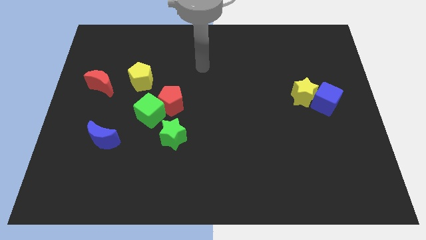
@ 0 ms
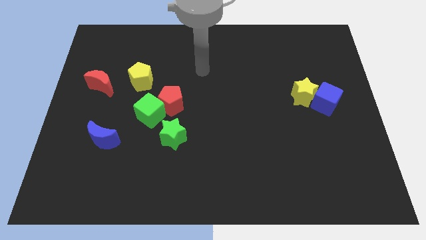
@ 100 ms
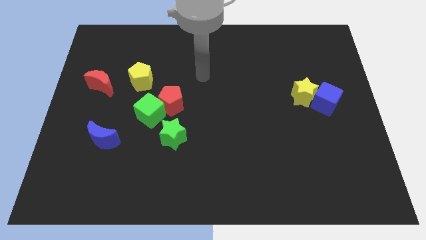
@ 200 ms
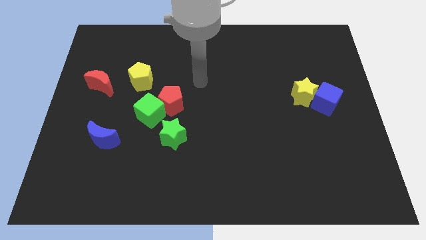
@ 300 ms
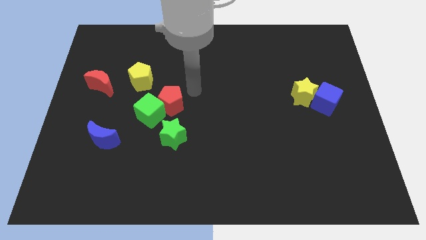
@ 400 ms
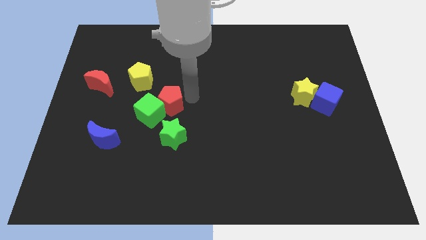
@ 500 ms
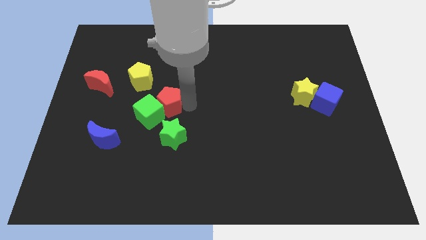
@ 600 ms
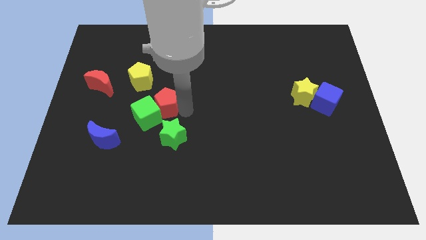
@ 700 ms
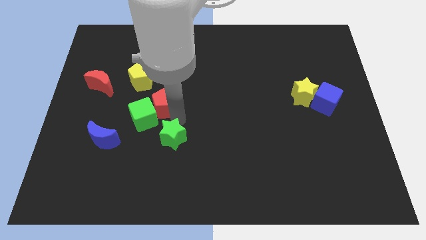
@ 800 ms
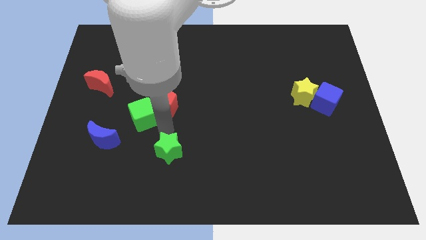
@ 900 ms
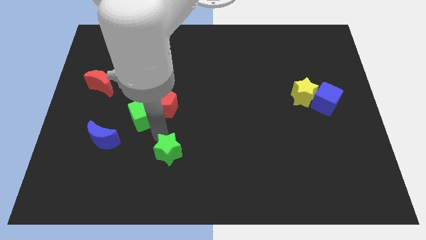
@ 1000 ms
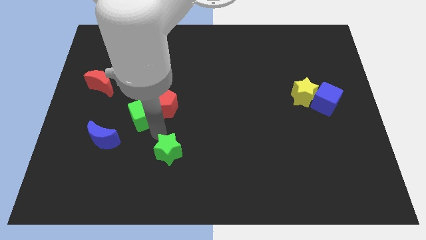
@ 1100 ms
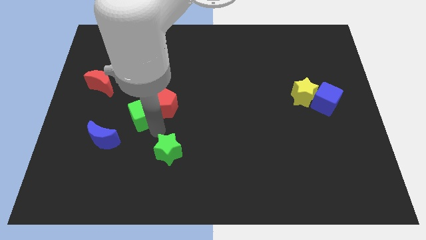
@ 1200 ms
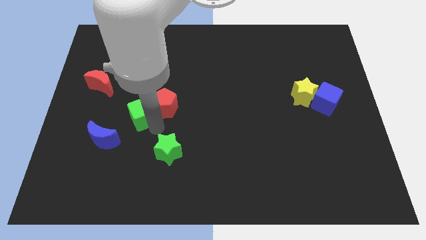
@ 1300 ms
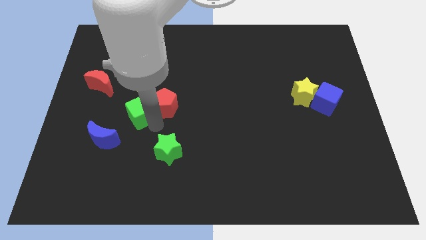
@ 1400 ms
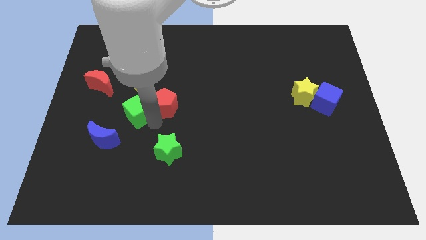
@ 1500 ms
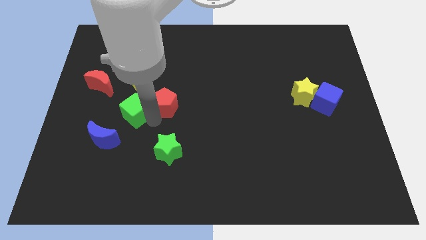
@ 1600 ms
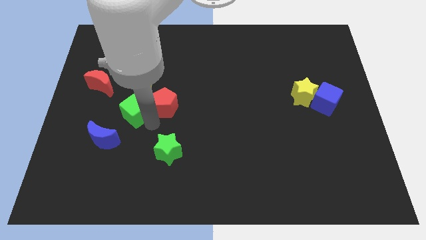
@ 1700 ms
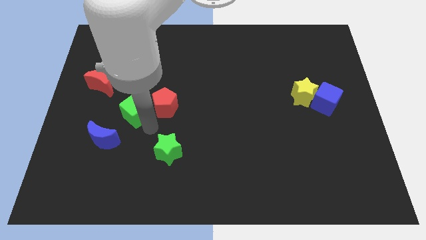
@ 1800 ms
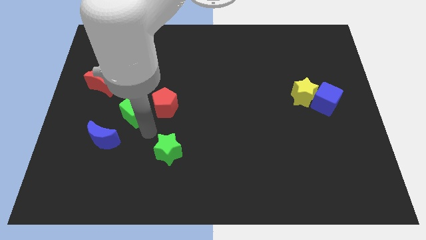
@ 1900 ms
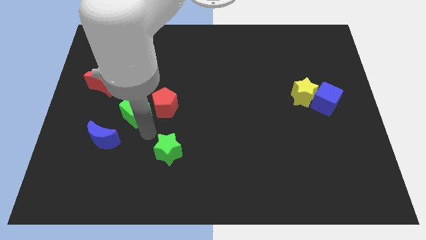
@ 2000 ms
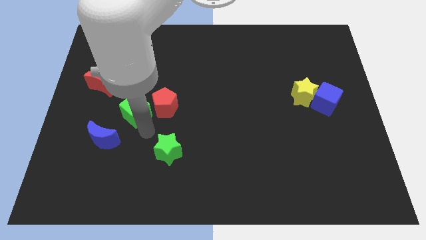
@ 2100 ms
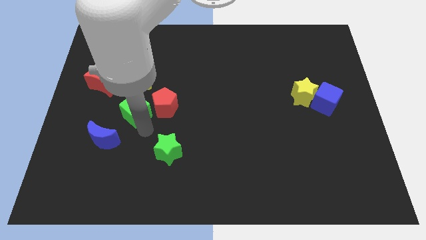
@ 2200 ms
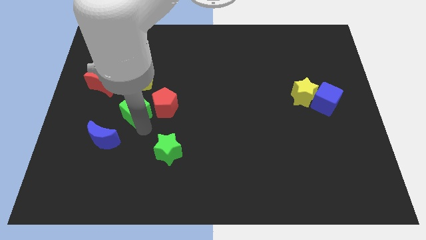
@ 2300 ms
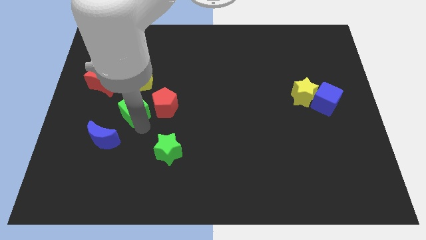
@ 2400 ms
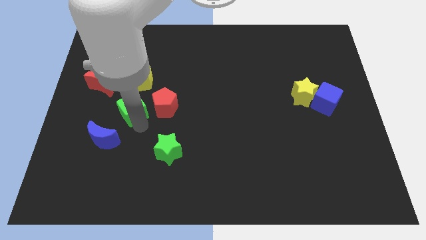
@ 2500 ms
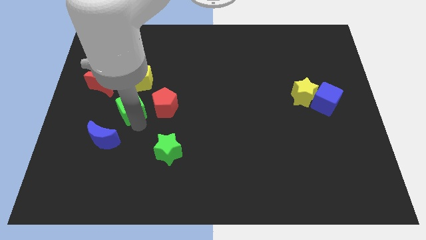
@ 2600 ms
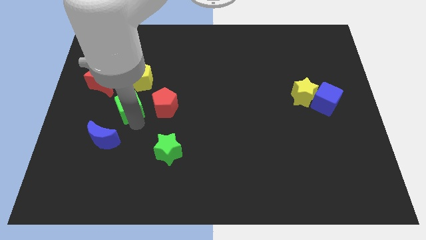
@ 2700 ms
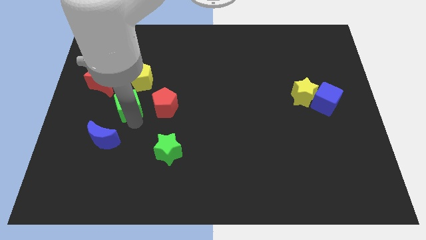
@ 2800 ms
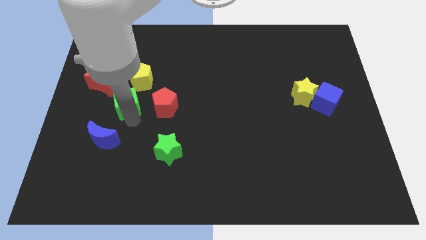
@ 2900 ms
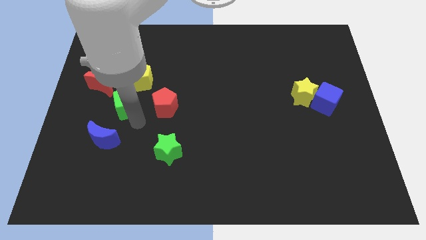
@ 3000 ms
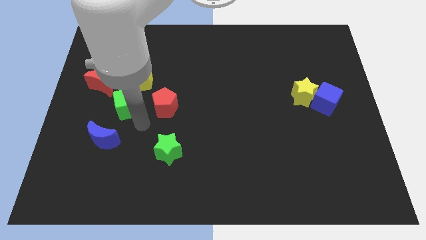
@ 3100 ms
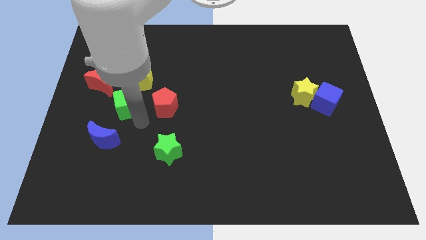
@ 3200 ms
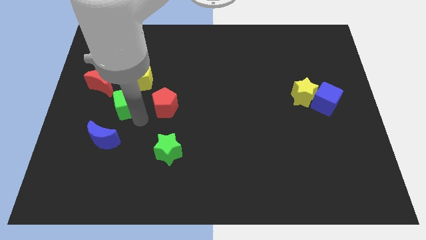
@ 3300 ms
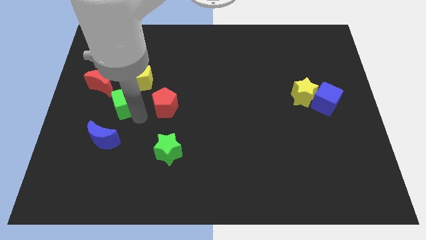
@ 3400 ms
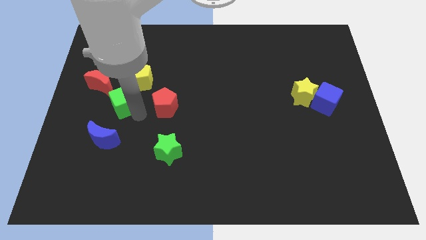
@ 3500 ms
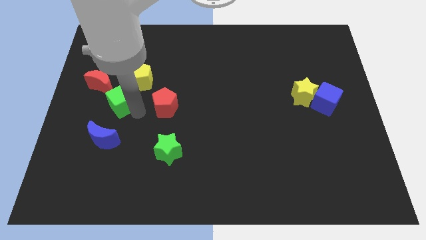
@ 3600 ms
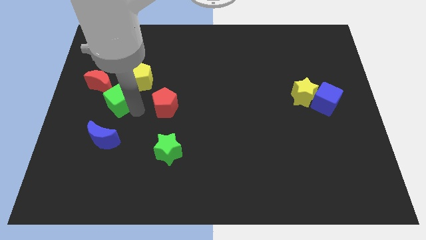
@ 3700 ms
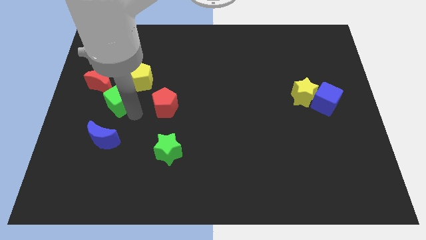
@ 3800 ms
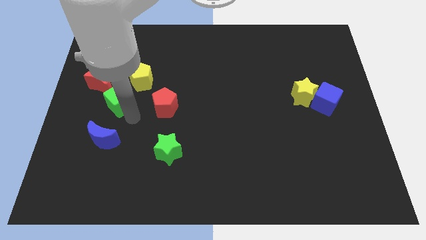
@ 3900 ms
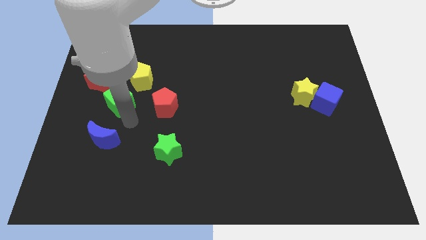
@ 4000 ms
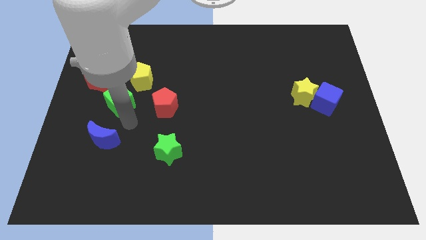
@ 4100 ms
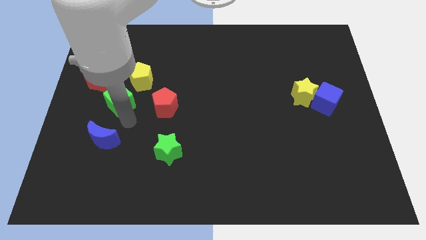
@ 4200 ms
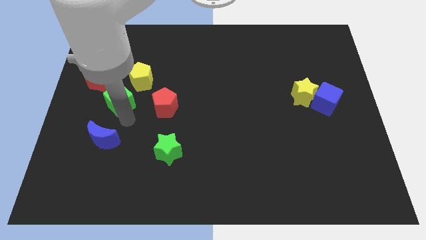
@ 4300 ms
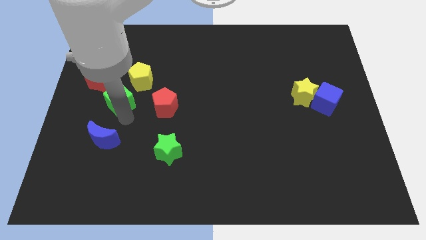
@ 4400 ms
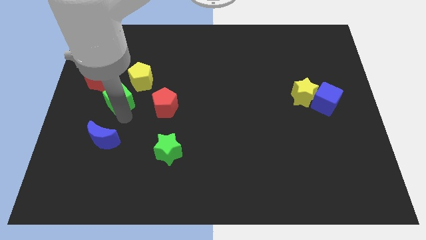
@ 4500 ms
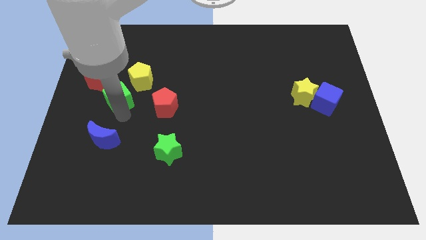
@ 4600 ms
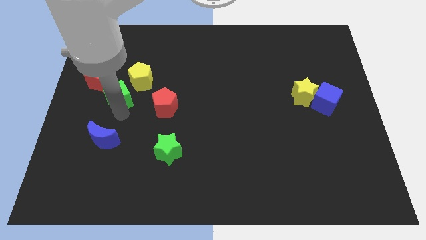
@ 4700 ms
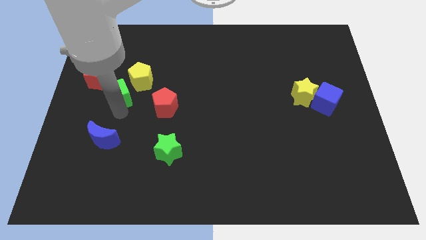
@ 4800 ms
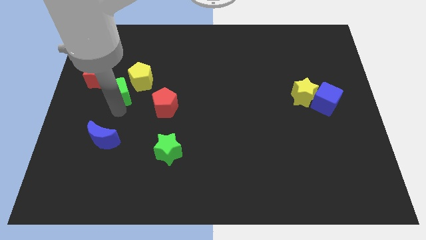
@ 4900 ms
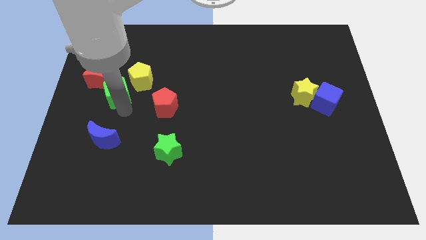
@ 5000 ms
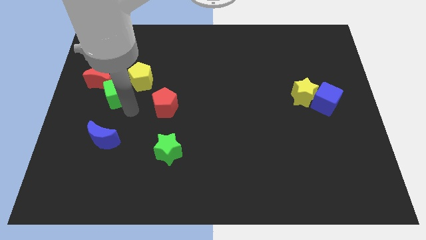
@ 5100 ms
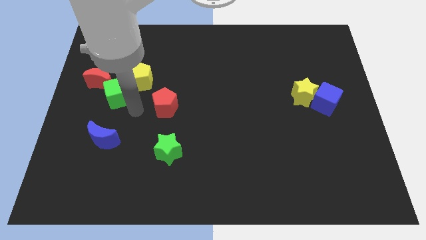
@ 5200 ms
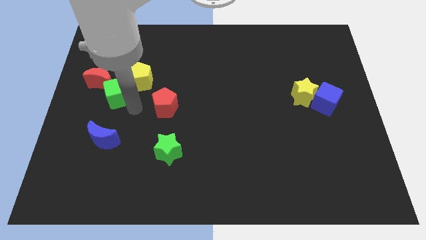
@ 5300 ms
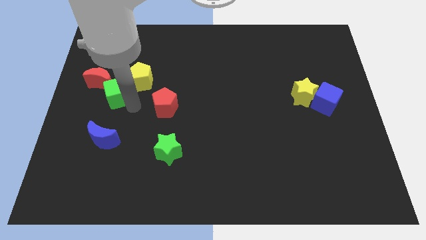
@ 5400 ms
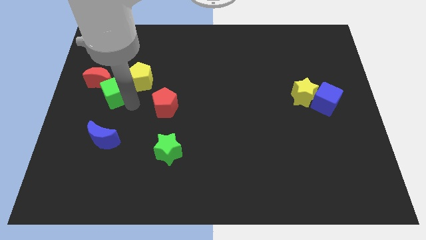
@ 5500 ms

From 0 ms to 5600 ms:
push the green cube next to the red moon
